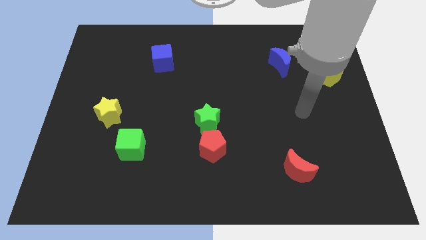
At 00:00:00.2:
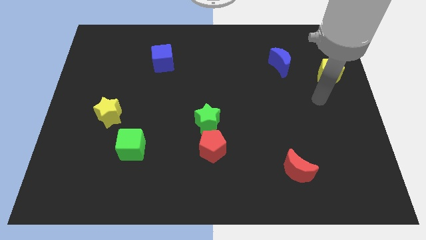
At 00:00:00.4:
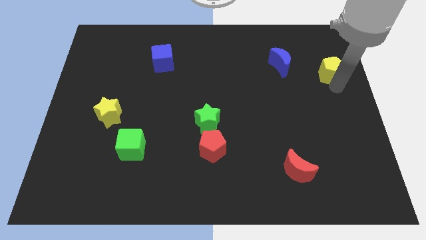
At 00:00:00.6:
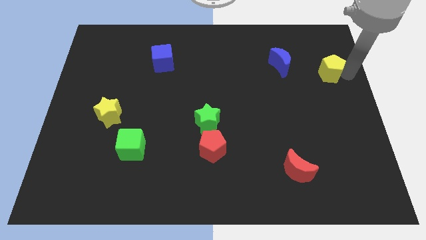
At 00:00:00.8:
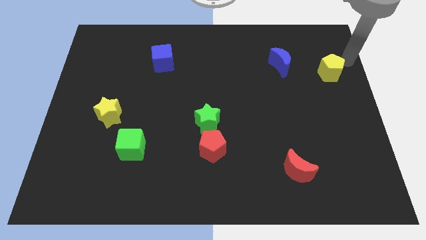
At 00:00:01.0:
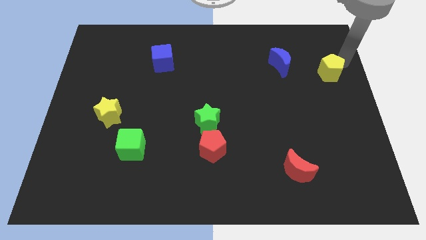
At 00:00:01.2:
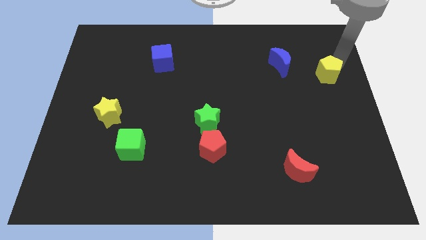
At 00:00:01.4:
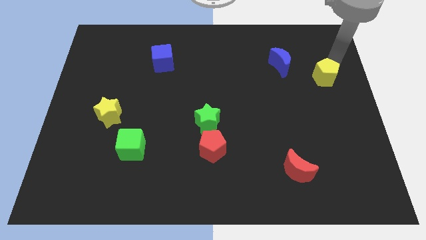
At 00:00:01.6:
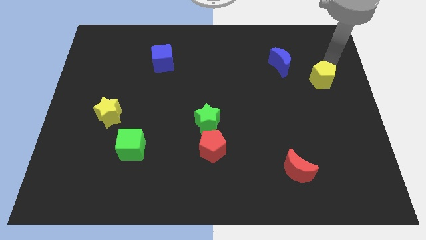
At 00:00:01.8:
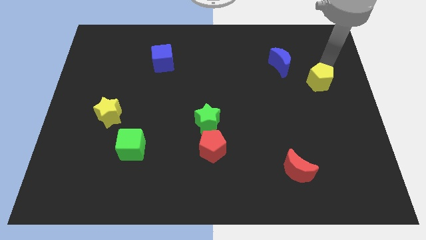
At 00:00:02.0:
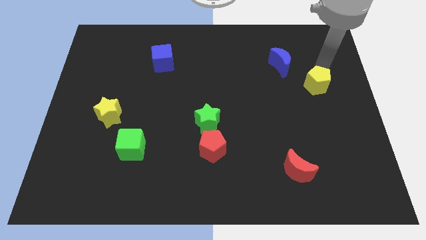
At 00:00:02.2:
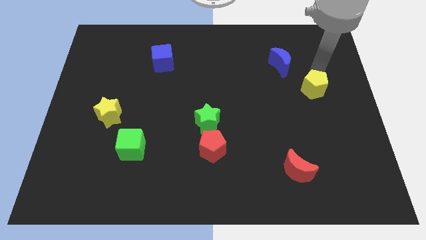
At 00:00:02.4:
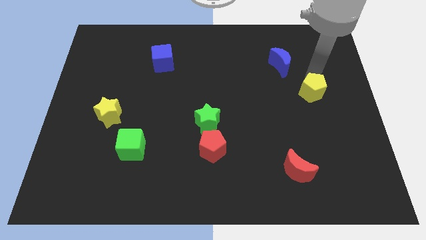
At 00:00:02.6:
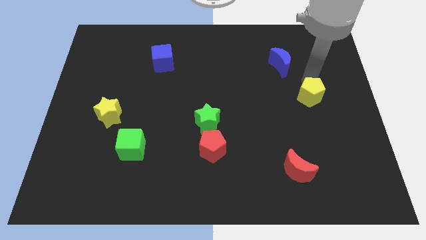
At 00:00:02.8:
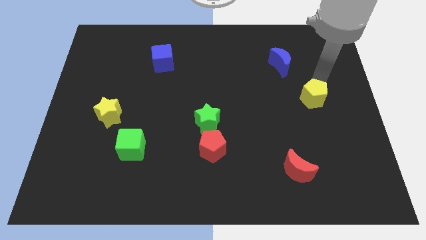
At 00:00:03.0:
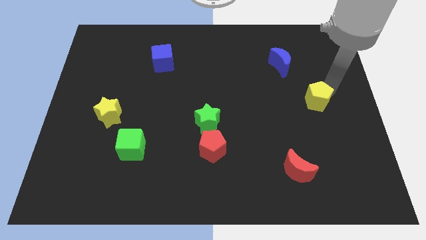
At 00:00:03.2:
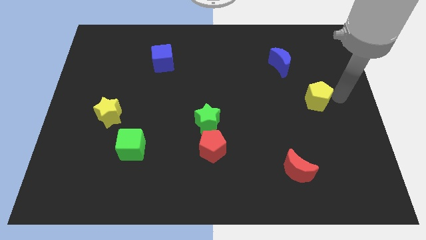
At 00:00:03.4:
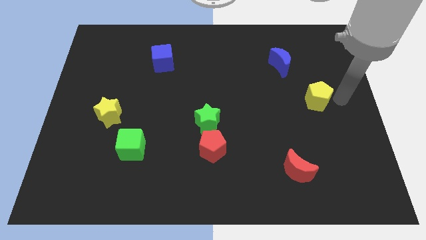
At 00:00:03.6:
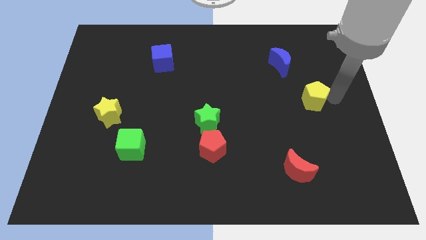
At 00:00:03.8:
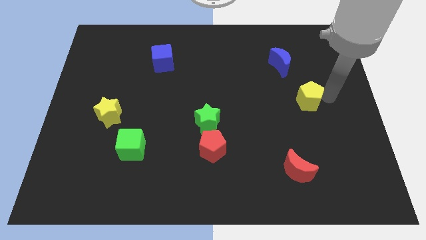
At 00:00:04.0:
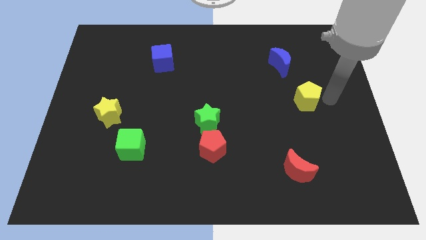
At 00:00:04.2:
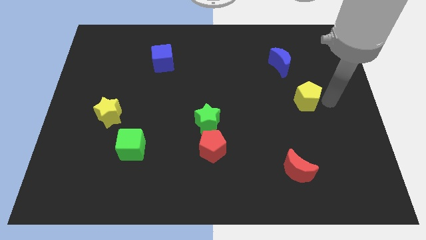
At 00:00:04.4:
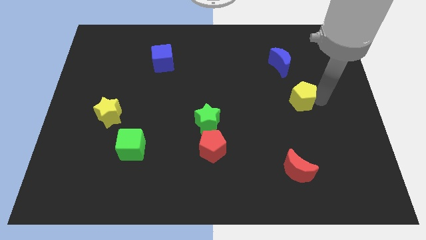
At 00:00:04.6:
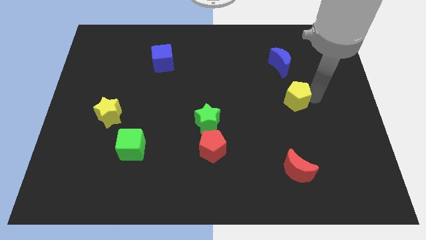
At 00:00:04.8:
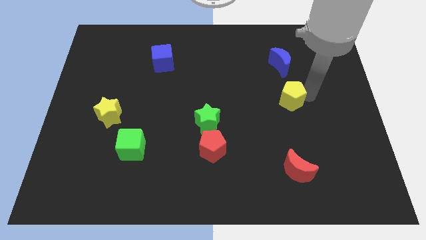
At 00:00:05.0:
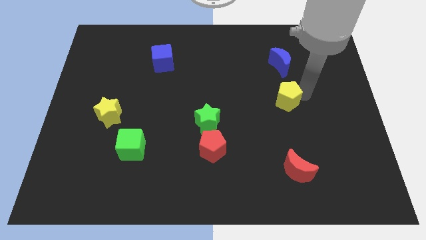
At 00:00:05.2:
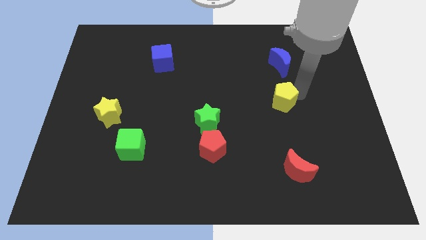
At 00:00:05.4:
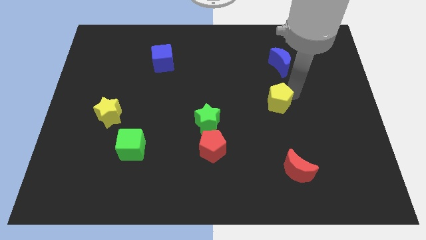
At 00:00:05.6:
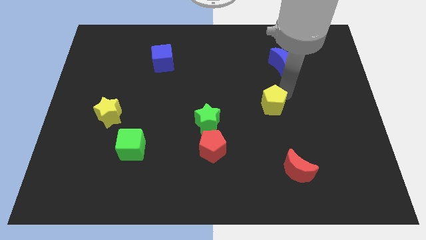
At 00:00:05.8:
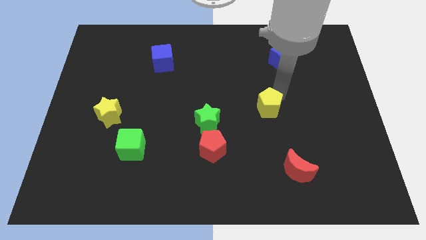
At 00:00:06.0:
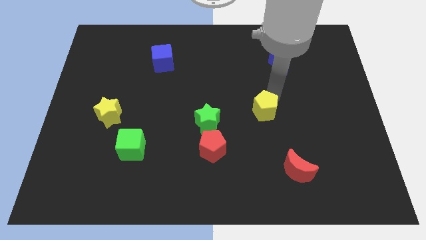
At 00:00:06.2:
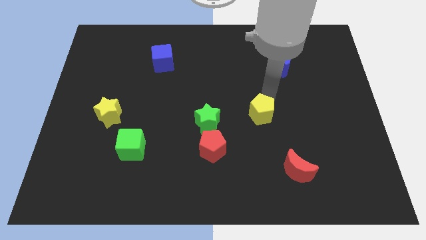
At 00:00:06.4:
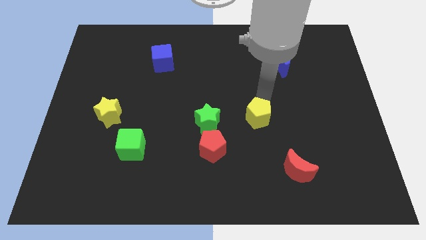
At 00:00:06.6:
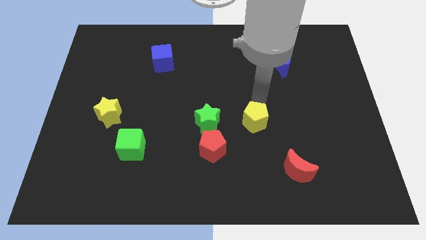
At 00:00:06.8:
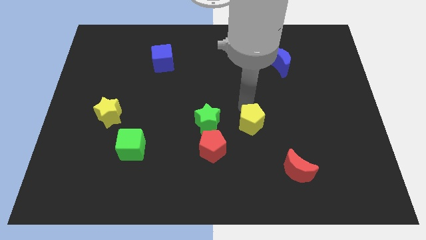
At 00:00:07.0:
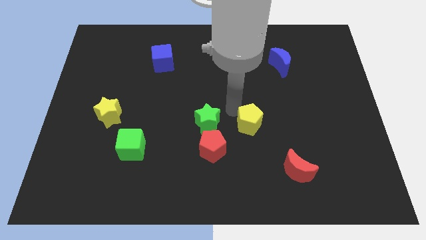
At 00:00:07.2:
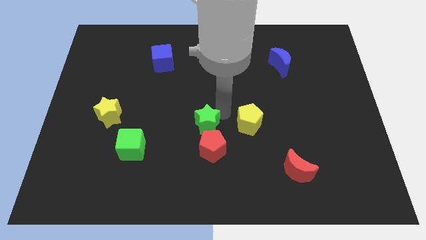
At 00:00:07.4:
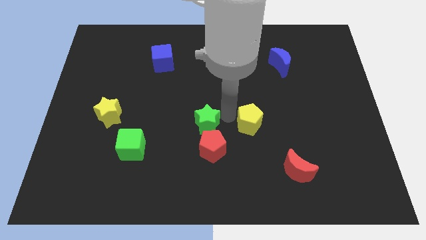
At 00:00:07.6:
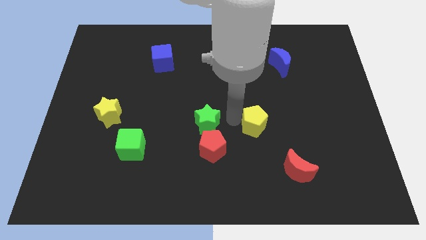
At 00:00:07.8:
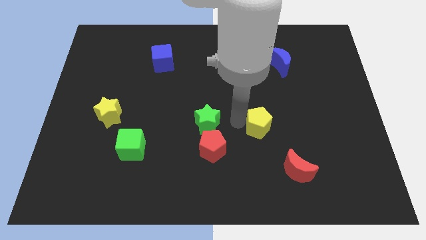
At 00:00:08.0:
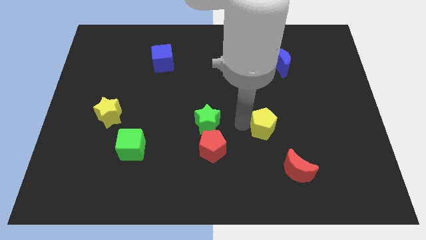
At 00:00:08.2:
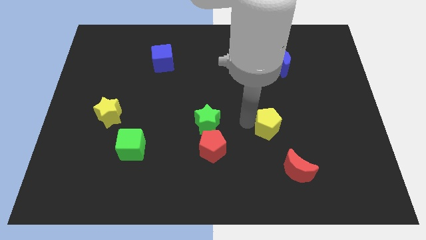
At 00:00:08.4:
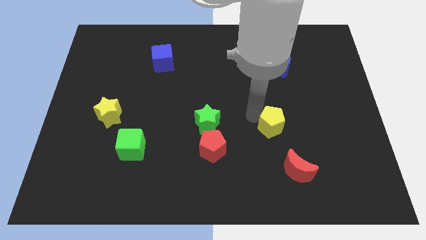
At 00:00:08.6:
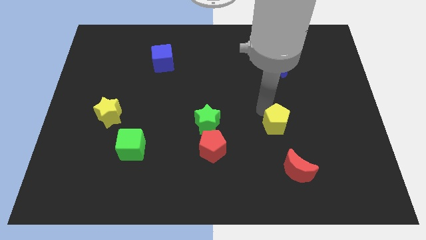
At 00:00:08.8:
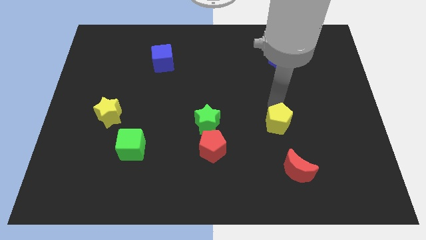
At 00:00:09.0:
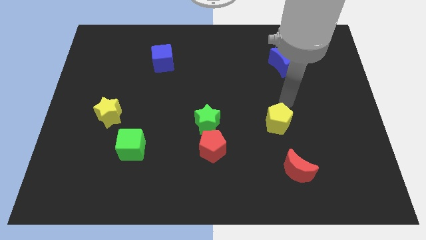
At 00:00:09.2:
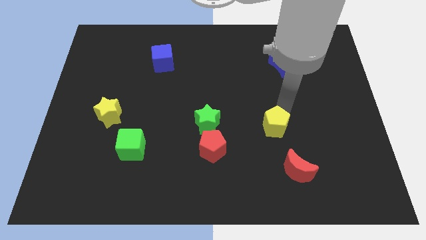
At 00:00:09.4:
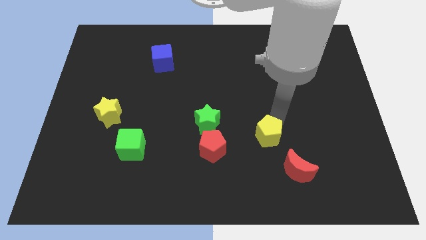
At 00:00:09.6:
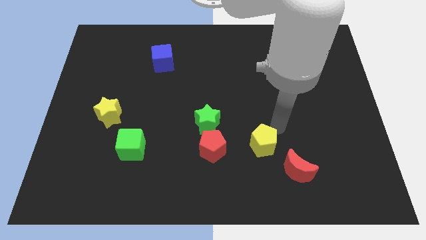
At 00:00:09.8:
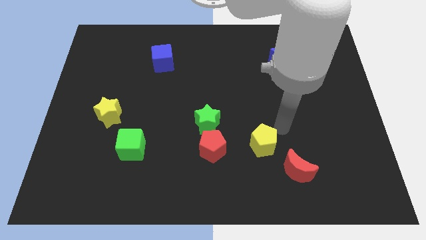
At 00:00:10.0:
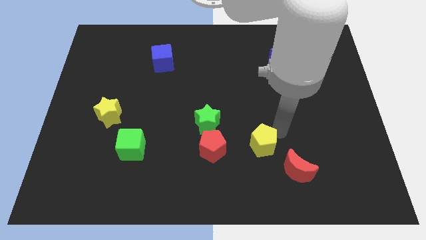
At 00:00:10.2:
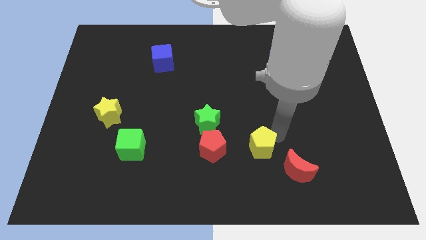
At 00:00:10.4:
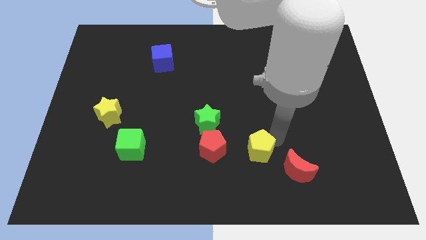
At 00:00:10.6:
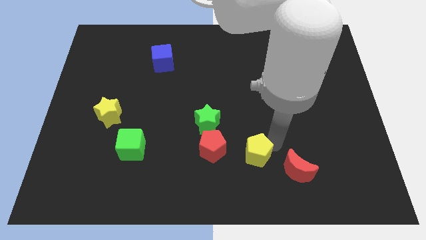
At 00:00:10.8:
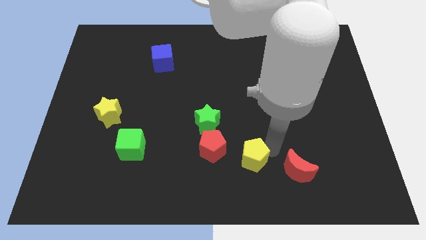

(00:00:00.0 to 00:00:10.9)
move the yellow pentagon diagonally down and to the right of the red pentagon

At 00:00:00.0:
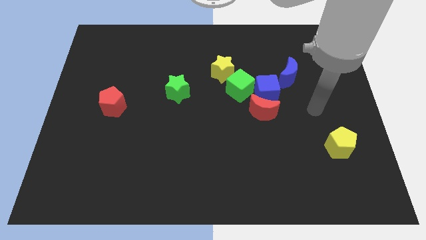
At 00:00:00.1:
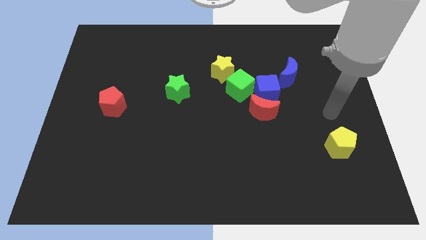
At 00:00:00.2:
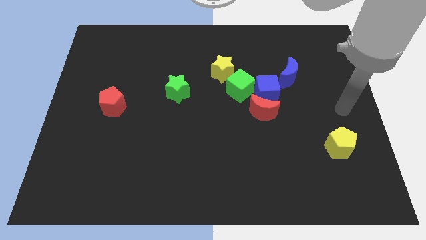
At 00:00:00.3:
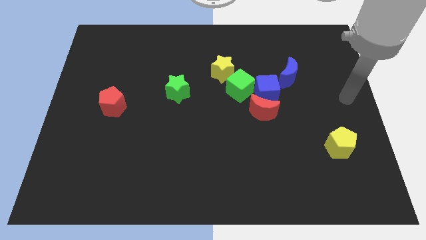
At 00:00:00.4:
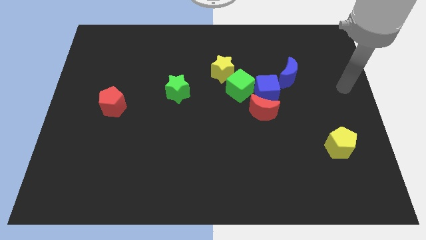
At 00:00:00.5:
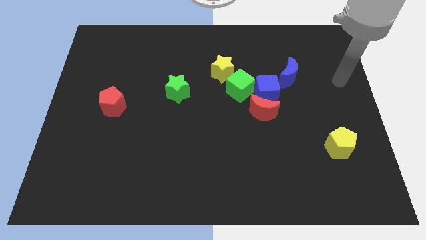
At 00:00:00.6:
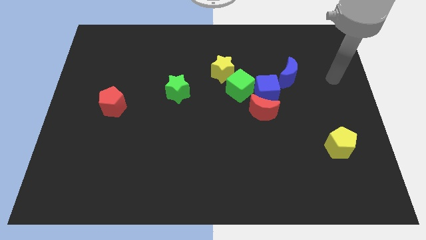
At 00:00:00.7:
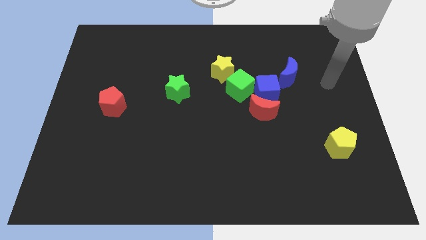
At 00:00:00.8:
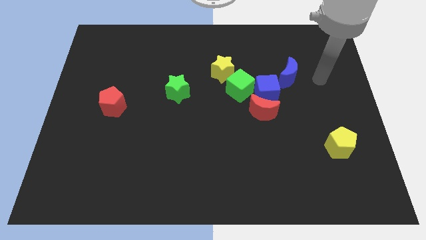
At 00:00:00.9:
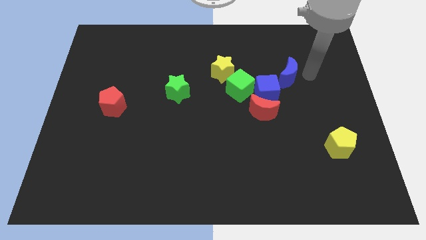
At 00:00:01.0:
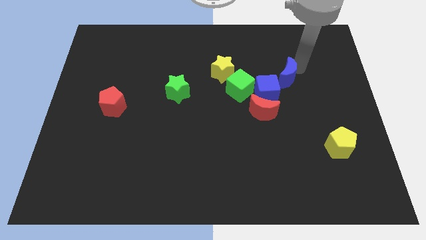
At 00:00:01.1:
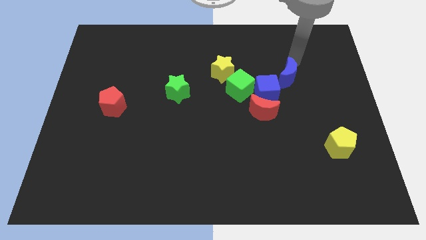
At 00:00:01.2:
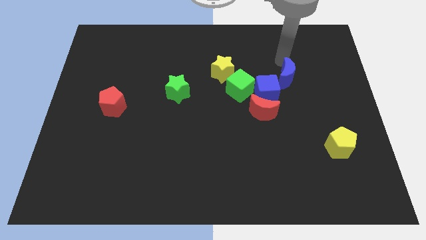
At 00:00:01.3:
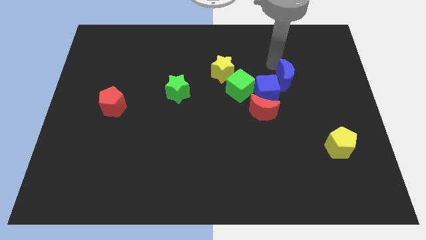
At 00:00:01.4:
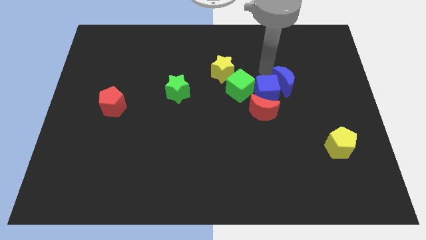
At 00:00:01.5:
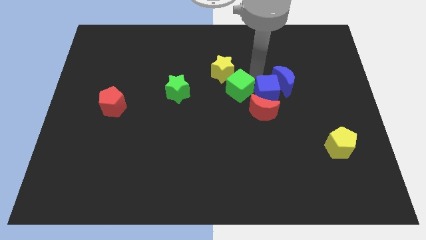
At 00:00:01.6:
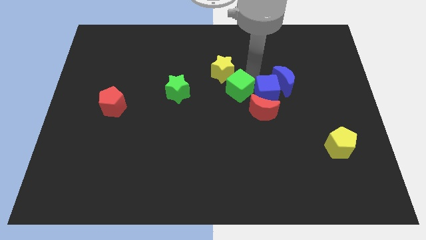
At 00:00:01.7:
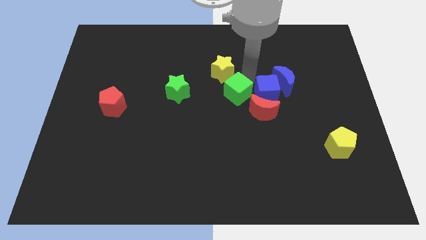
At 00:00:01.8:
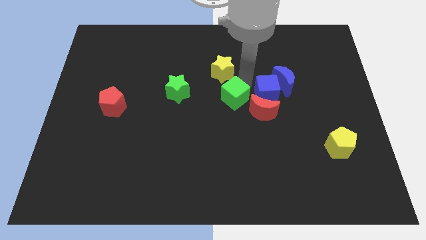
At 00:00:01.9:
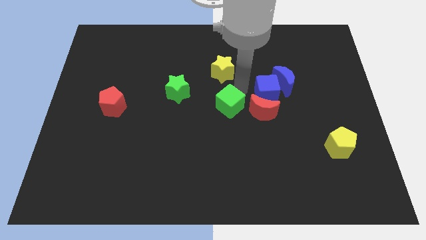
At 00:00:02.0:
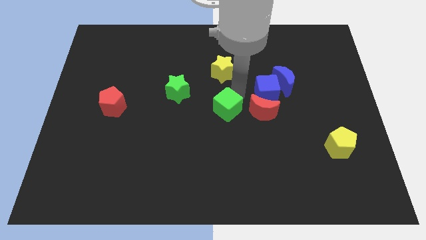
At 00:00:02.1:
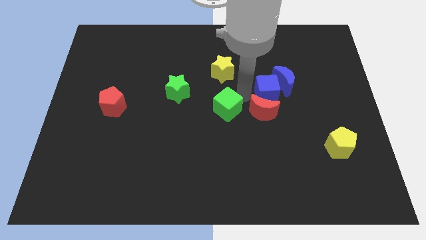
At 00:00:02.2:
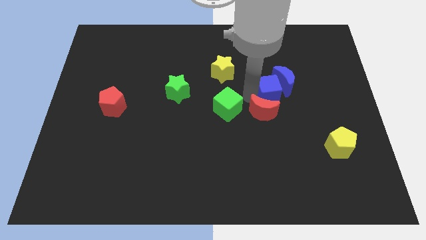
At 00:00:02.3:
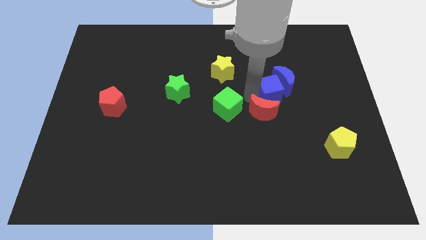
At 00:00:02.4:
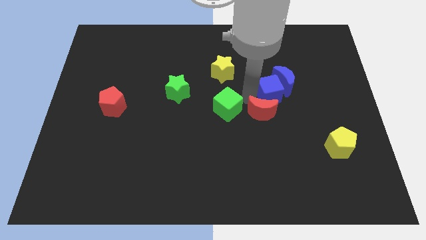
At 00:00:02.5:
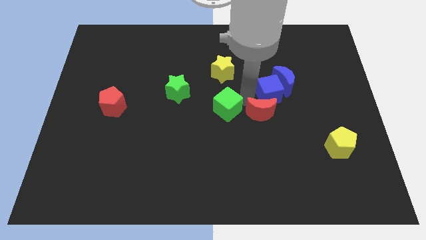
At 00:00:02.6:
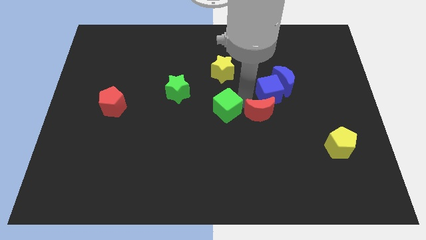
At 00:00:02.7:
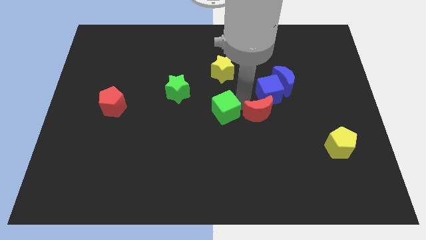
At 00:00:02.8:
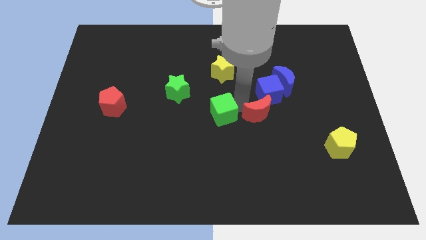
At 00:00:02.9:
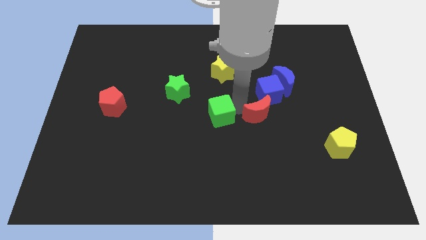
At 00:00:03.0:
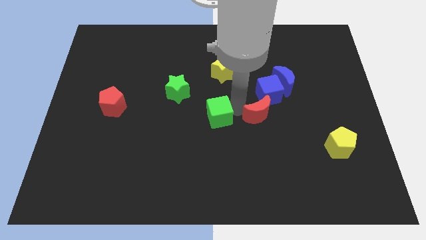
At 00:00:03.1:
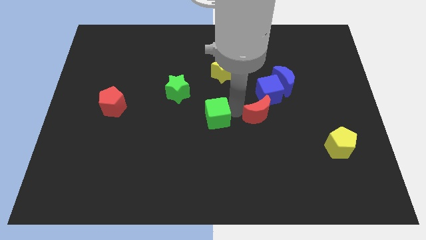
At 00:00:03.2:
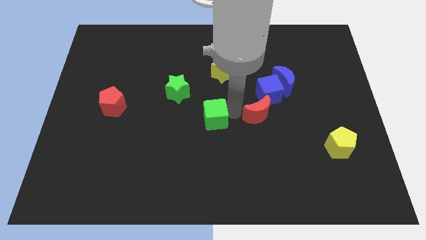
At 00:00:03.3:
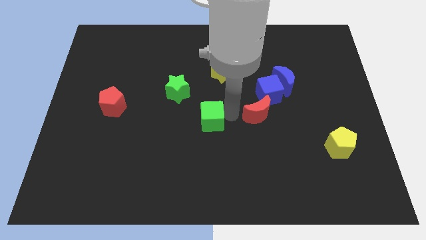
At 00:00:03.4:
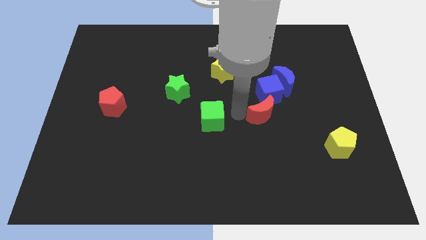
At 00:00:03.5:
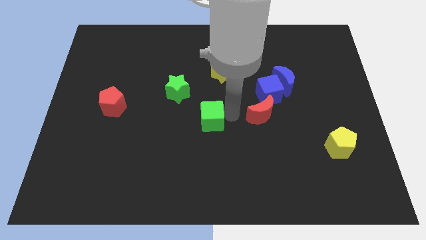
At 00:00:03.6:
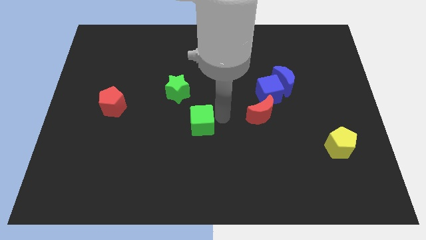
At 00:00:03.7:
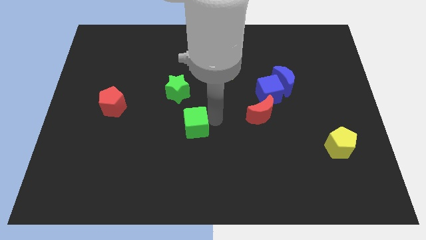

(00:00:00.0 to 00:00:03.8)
push the green cube below the green star
